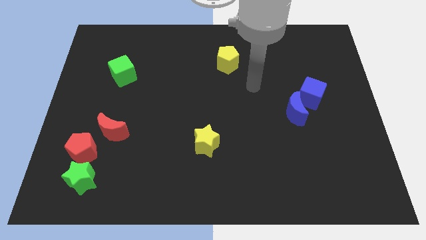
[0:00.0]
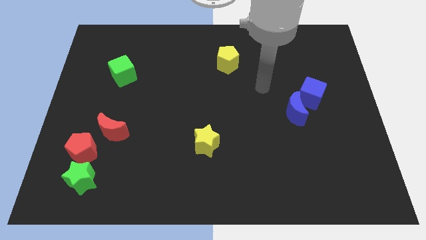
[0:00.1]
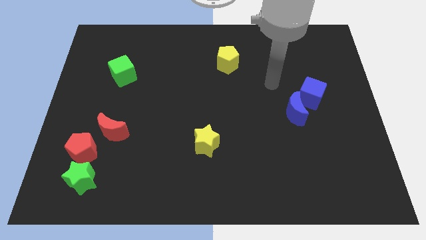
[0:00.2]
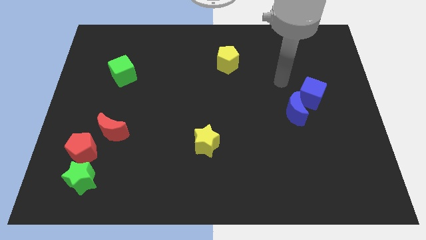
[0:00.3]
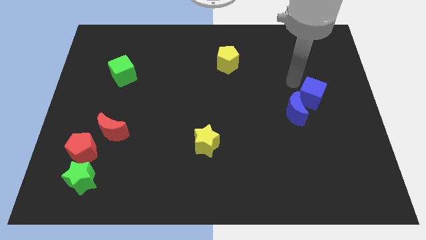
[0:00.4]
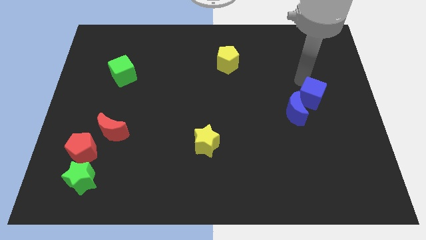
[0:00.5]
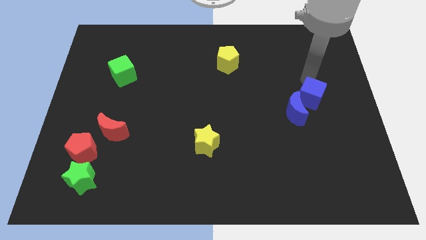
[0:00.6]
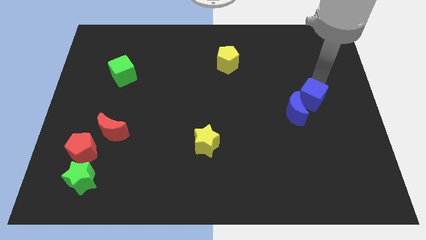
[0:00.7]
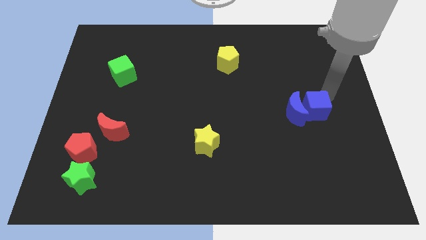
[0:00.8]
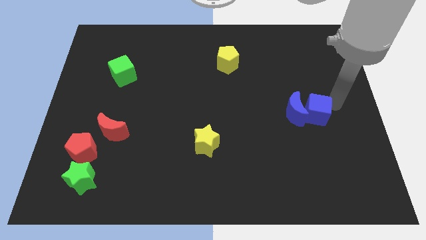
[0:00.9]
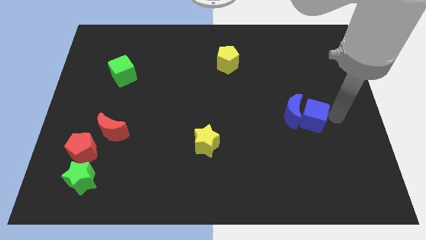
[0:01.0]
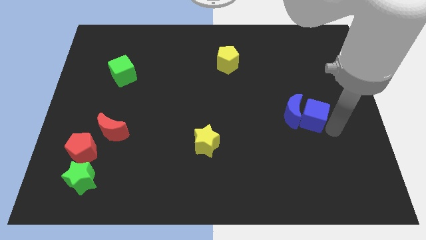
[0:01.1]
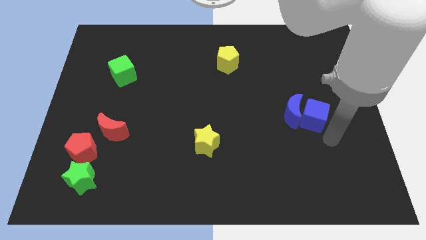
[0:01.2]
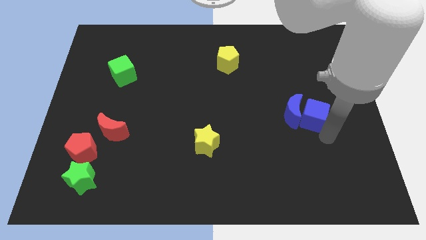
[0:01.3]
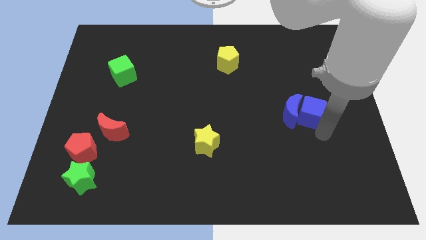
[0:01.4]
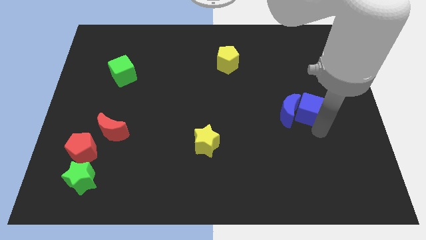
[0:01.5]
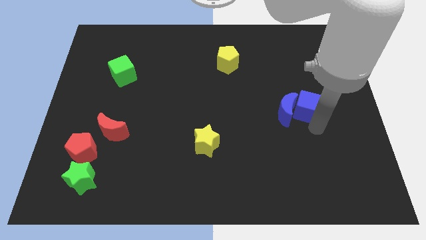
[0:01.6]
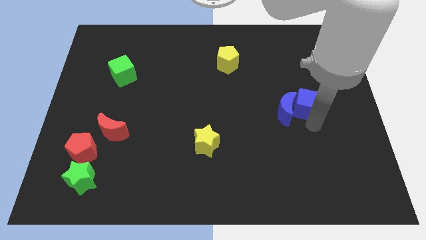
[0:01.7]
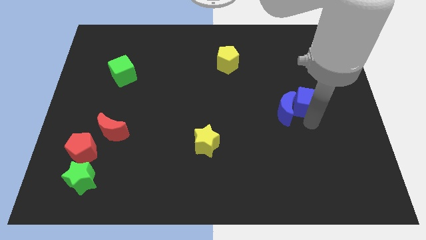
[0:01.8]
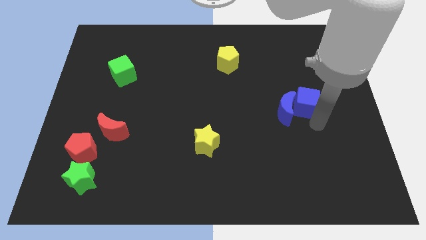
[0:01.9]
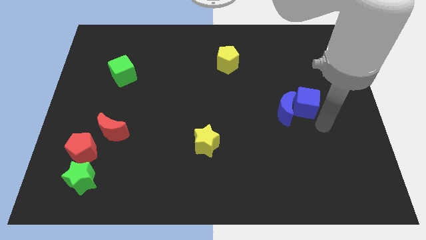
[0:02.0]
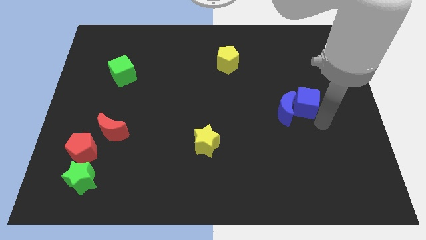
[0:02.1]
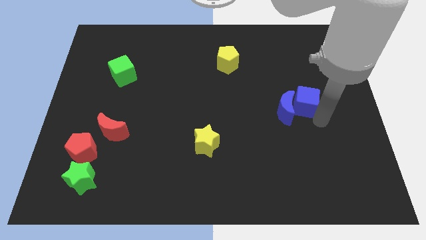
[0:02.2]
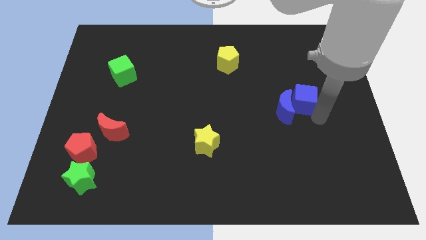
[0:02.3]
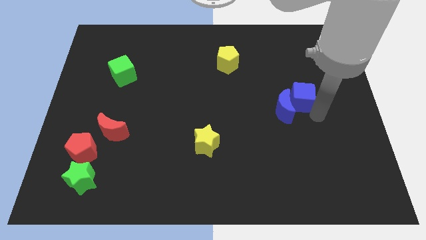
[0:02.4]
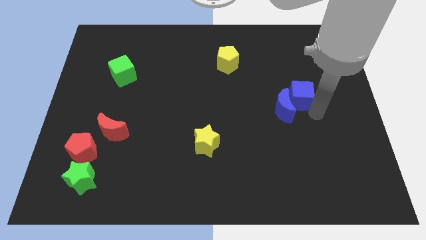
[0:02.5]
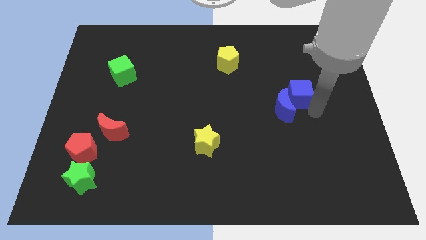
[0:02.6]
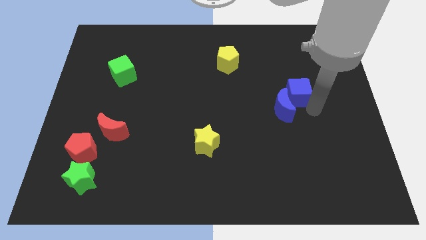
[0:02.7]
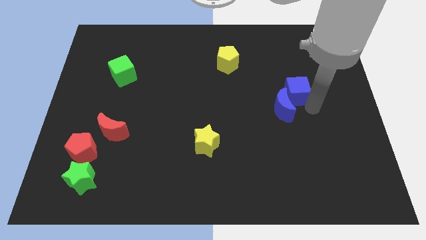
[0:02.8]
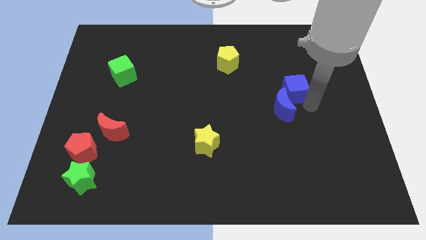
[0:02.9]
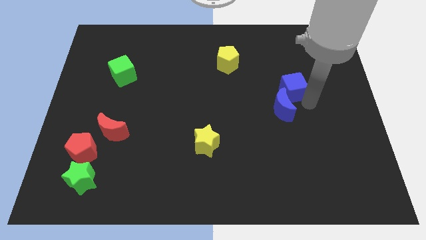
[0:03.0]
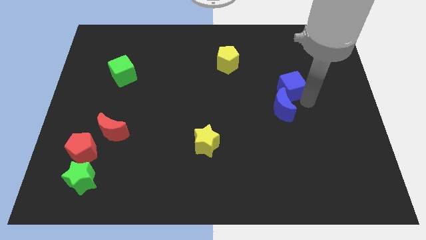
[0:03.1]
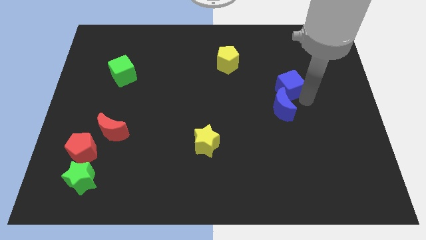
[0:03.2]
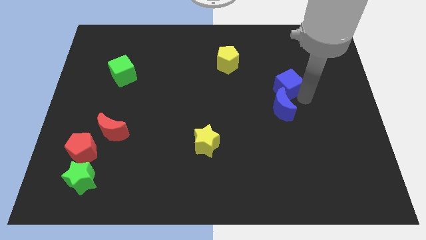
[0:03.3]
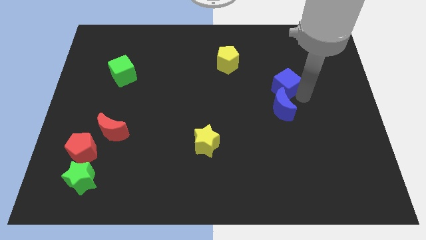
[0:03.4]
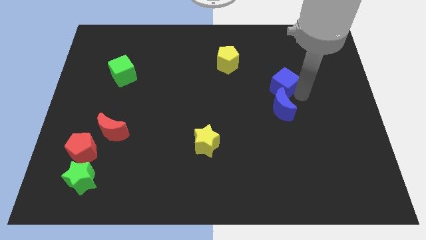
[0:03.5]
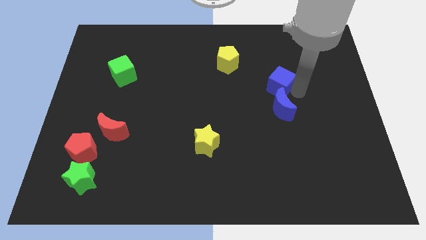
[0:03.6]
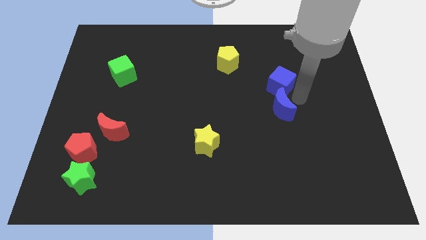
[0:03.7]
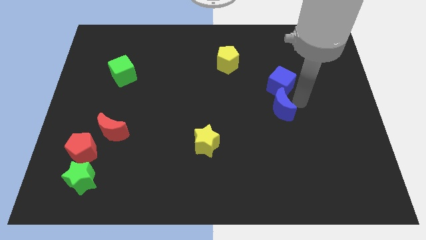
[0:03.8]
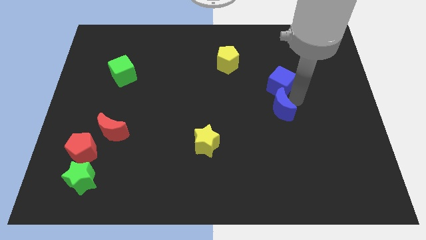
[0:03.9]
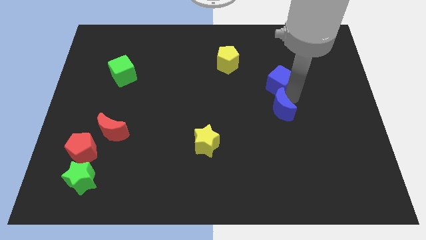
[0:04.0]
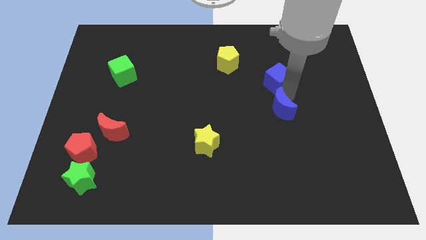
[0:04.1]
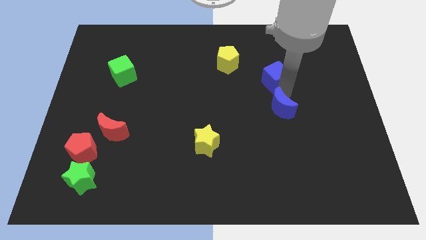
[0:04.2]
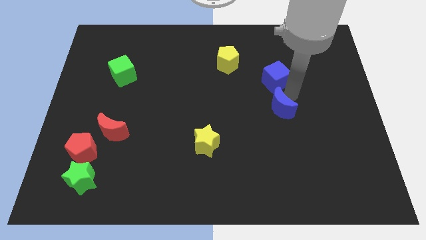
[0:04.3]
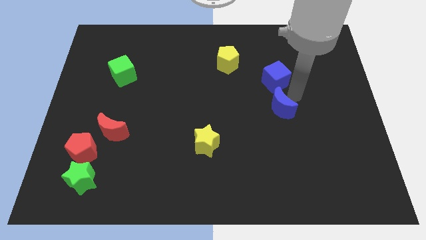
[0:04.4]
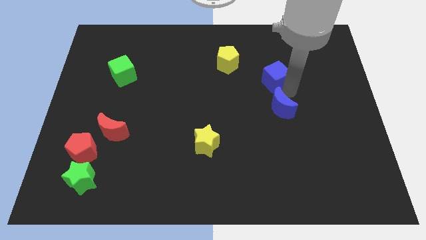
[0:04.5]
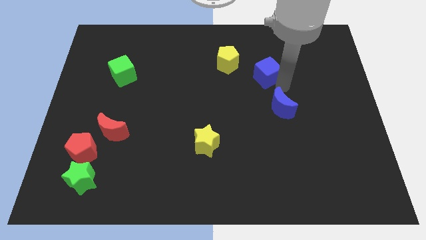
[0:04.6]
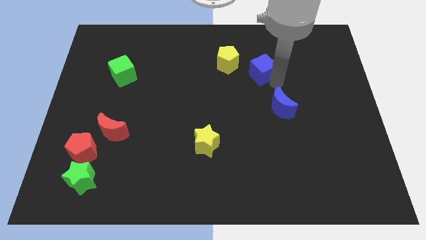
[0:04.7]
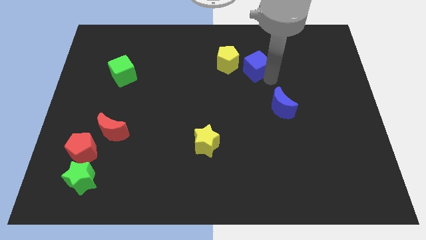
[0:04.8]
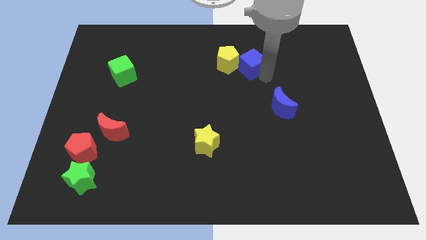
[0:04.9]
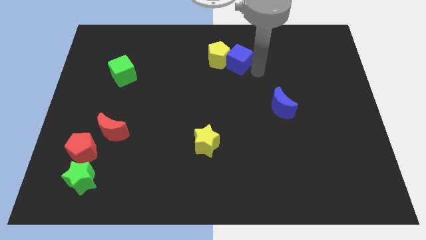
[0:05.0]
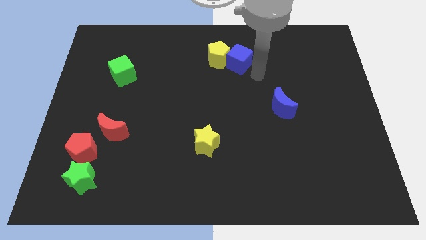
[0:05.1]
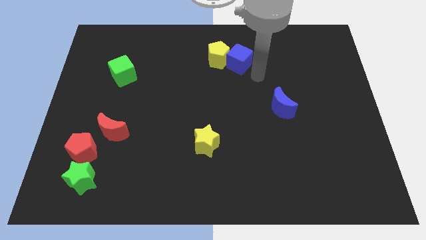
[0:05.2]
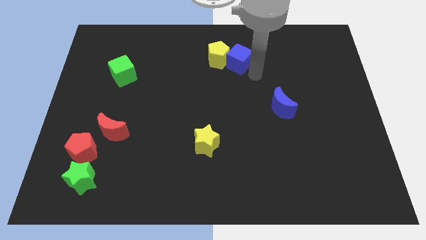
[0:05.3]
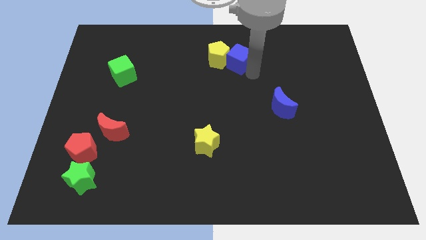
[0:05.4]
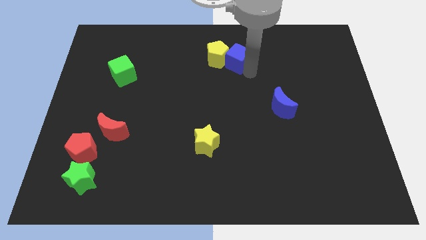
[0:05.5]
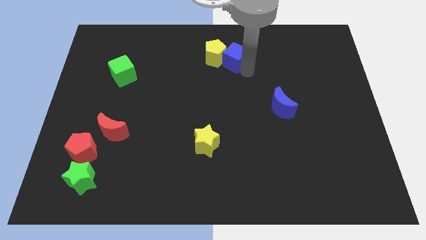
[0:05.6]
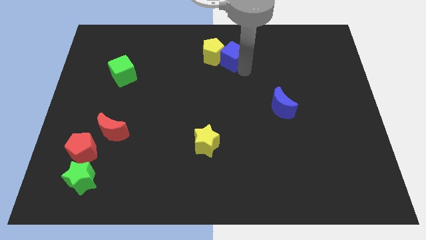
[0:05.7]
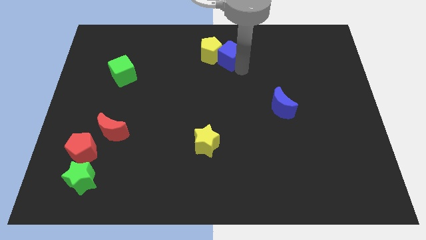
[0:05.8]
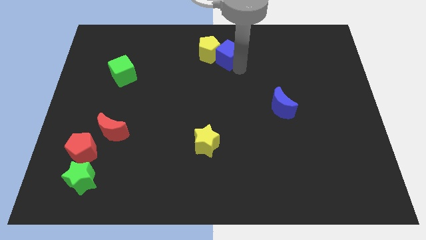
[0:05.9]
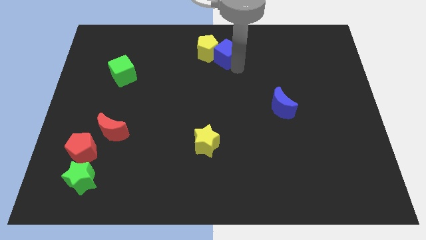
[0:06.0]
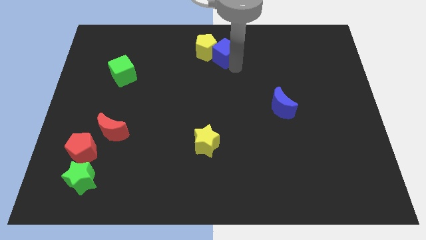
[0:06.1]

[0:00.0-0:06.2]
push the blue cube to the towards your base

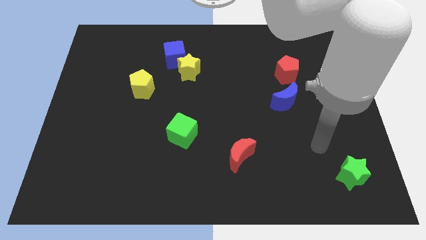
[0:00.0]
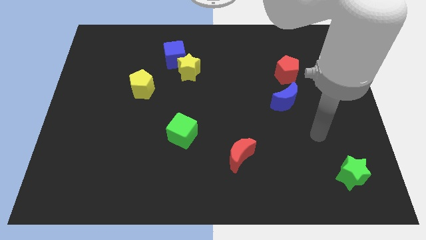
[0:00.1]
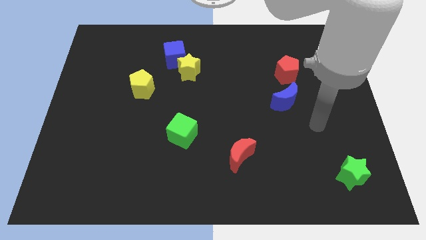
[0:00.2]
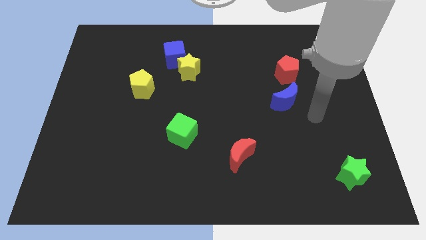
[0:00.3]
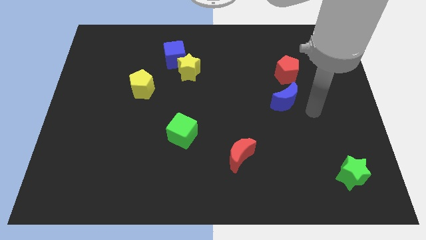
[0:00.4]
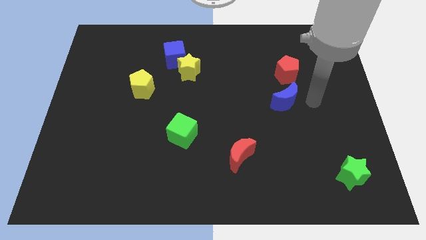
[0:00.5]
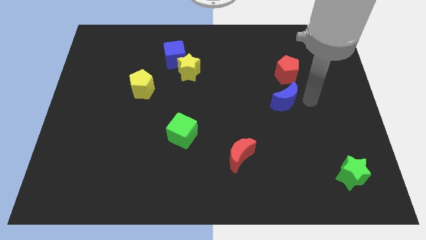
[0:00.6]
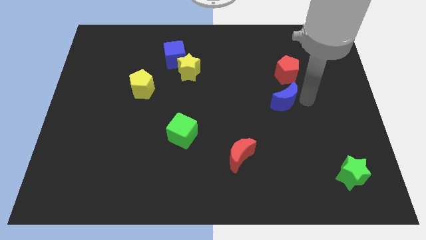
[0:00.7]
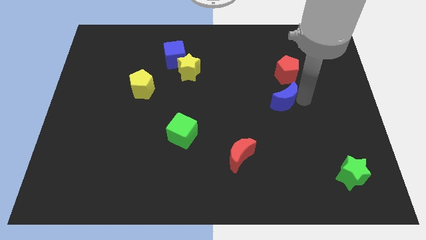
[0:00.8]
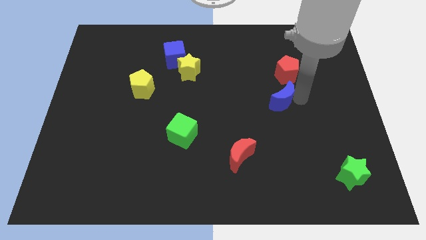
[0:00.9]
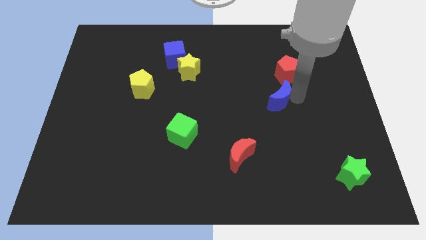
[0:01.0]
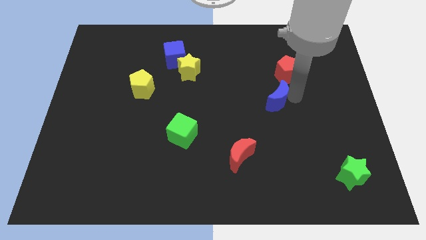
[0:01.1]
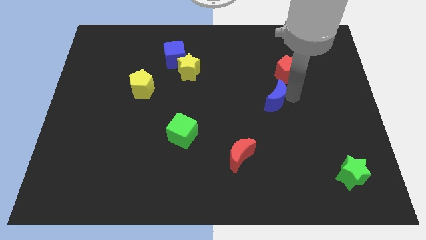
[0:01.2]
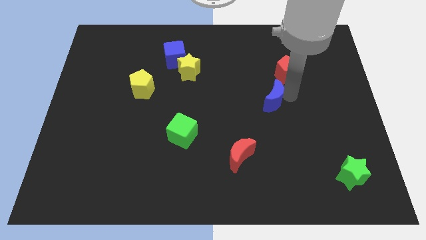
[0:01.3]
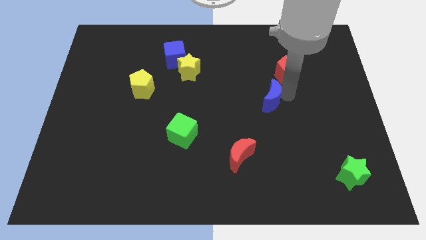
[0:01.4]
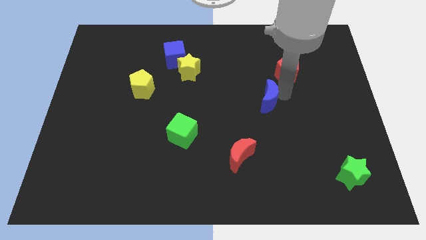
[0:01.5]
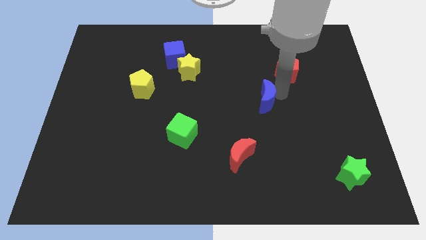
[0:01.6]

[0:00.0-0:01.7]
push the blue moon to the center of the board
